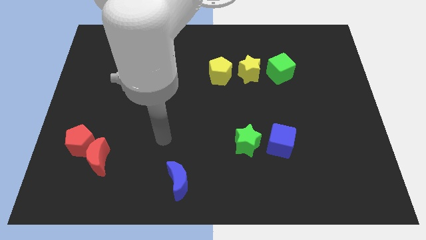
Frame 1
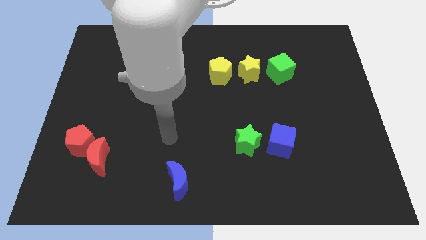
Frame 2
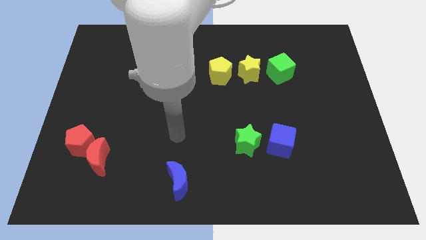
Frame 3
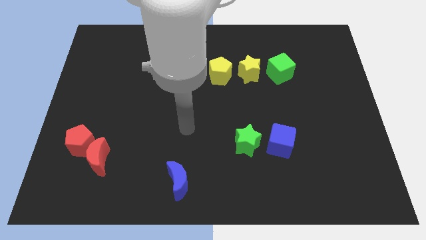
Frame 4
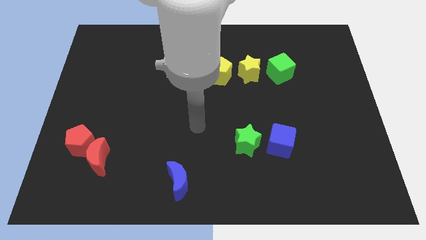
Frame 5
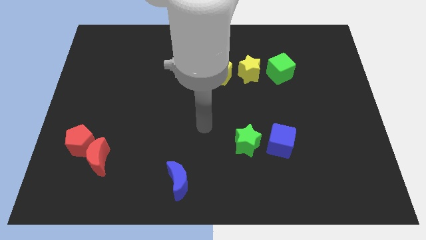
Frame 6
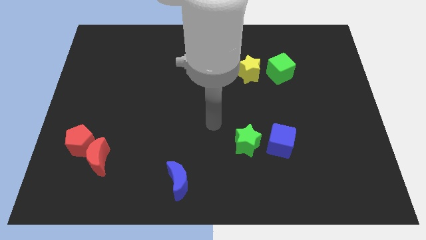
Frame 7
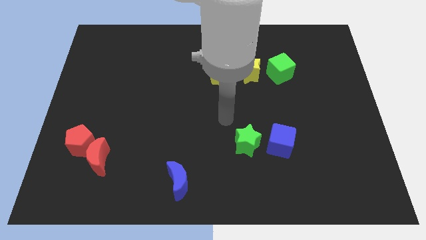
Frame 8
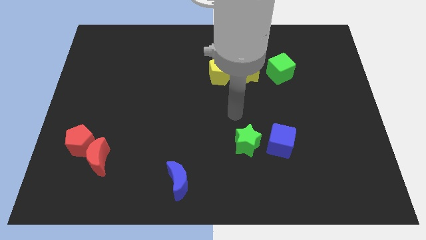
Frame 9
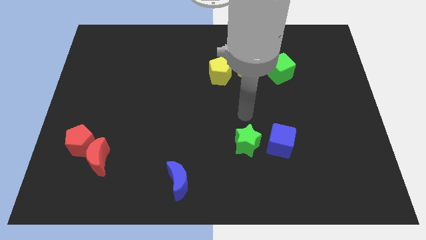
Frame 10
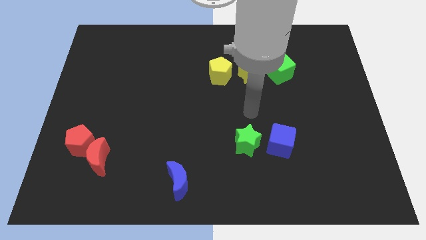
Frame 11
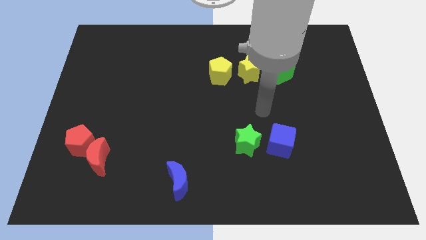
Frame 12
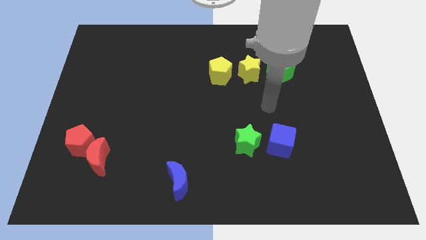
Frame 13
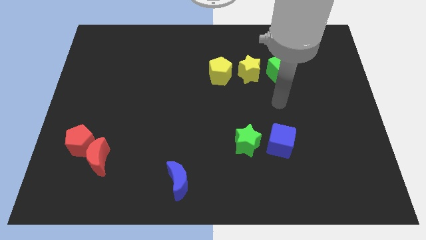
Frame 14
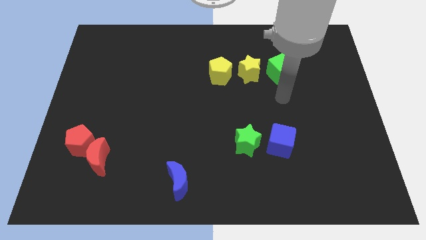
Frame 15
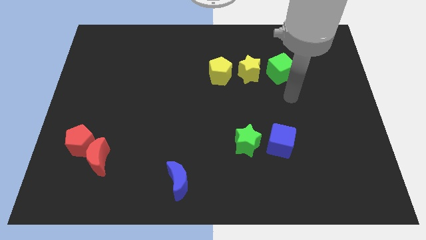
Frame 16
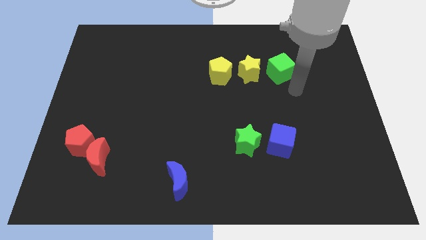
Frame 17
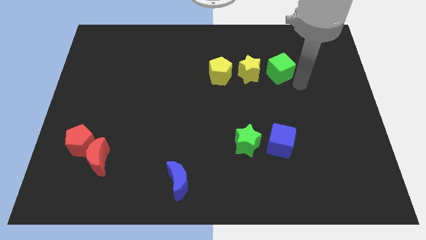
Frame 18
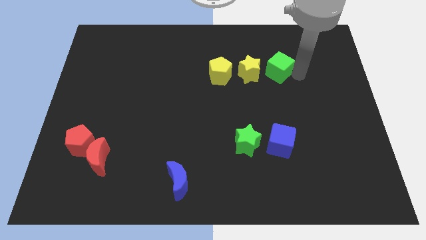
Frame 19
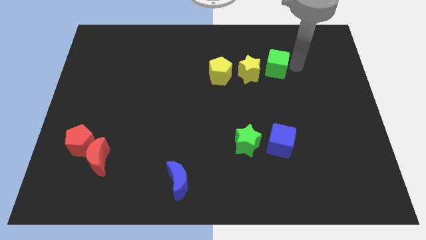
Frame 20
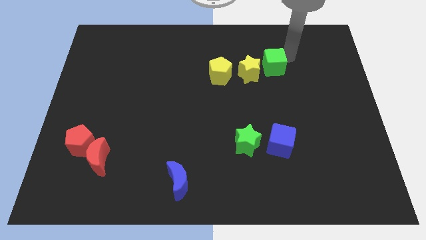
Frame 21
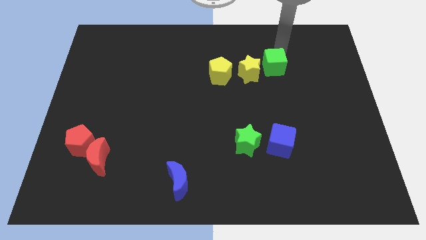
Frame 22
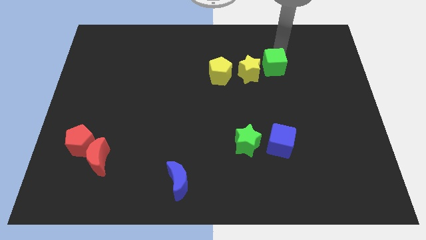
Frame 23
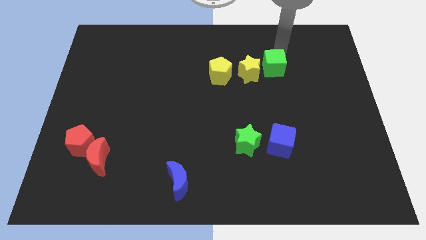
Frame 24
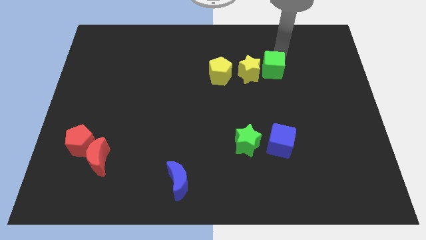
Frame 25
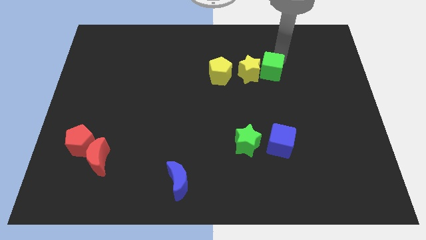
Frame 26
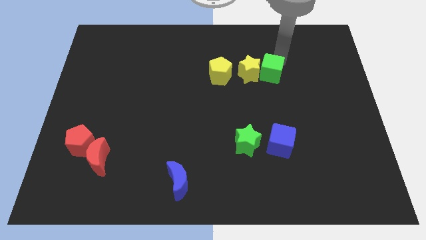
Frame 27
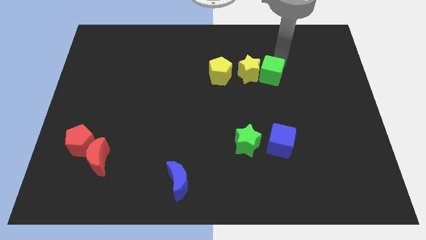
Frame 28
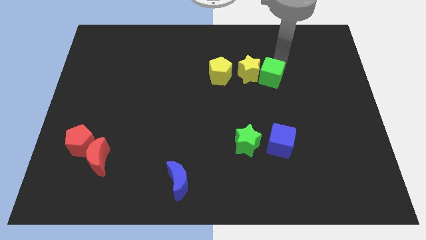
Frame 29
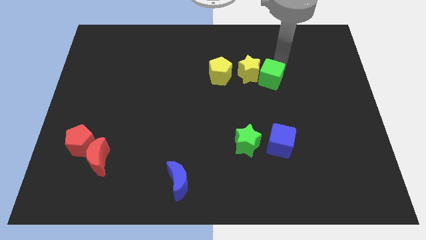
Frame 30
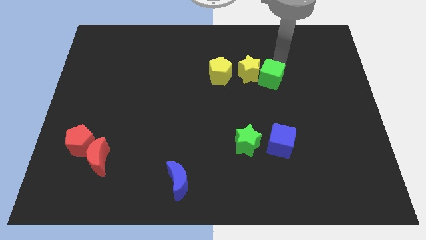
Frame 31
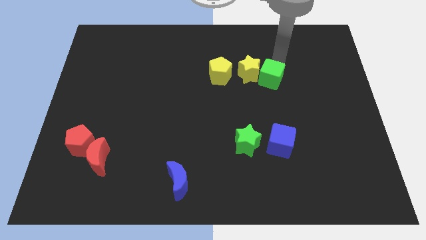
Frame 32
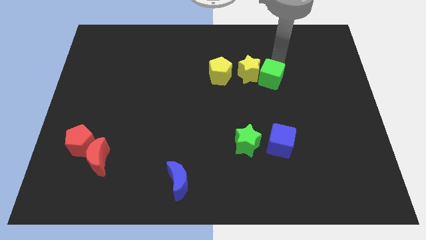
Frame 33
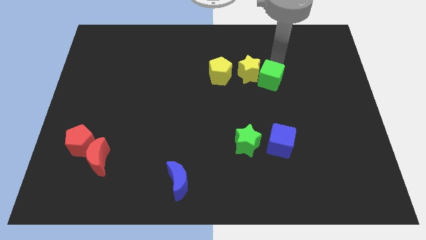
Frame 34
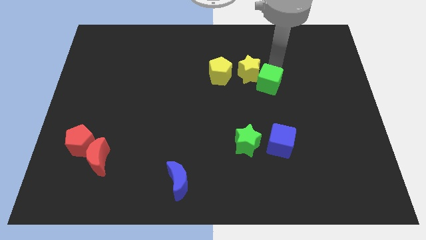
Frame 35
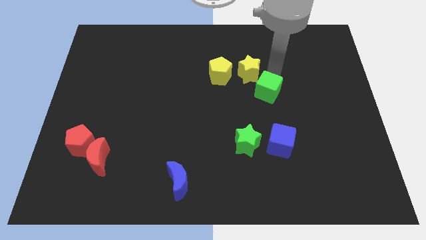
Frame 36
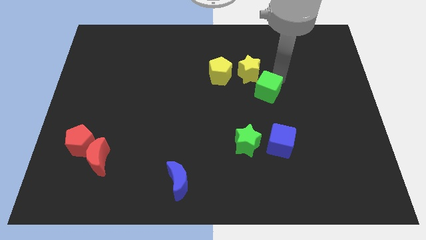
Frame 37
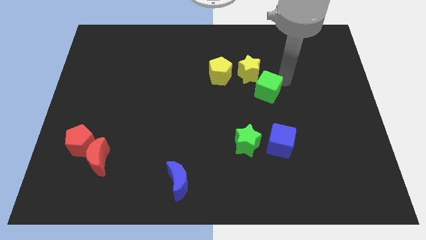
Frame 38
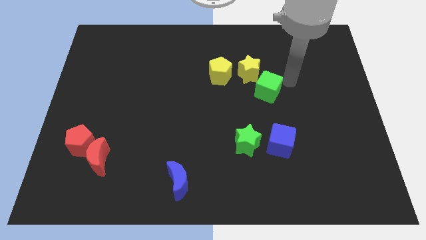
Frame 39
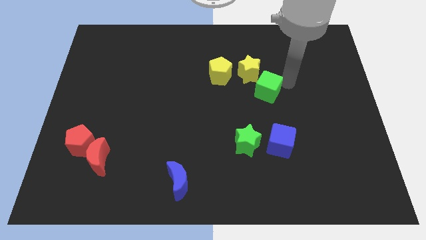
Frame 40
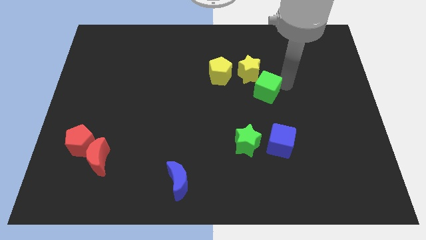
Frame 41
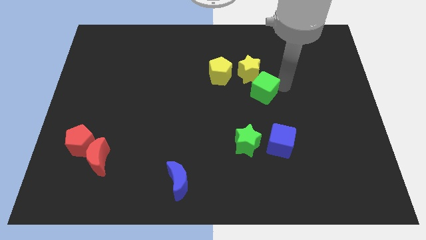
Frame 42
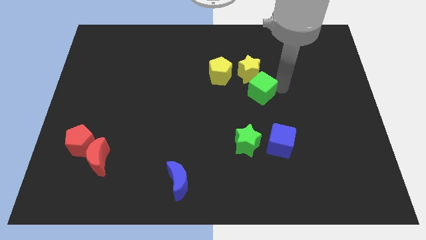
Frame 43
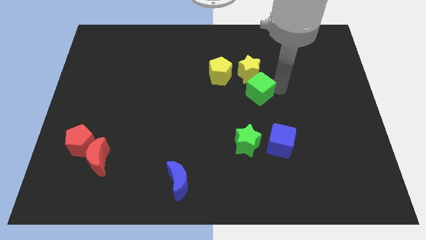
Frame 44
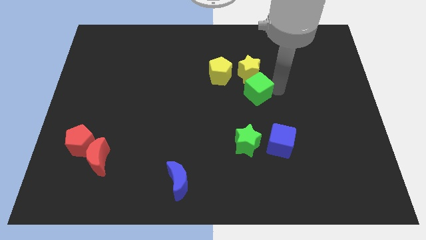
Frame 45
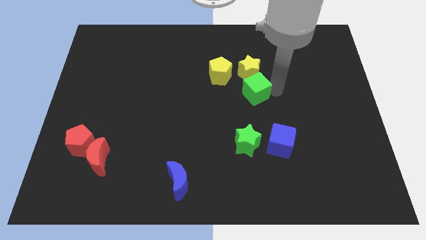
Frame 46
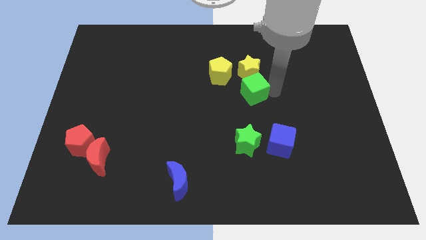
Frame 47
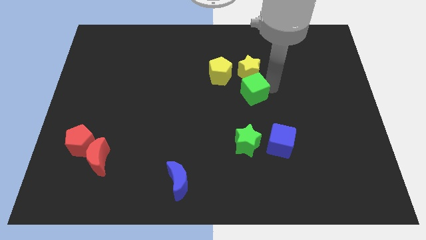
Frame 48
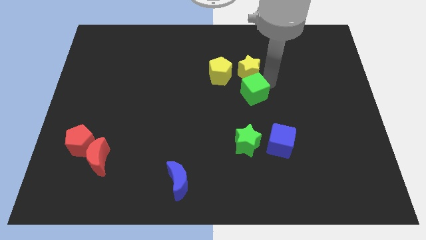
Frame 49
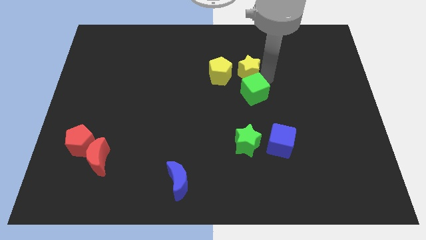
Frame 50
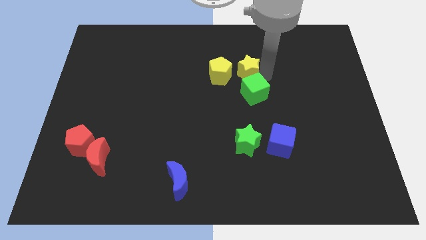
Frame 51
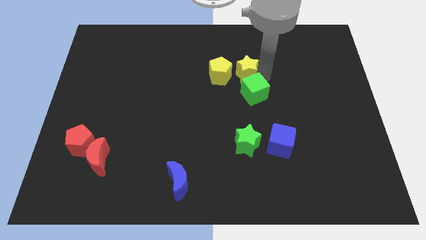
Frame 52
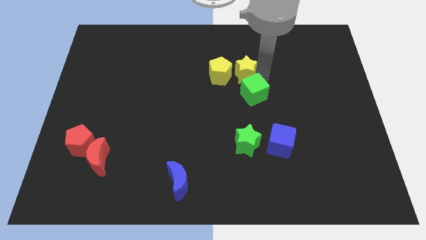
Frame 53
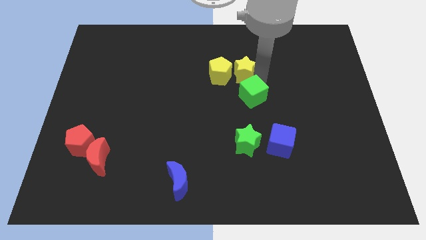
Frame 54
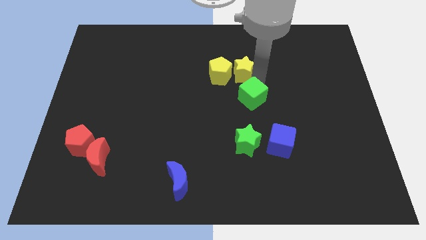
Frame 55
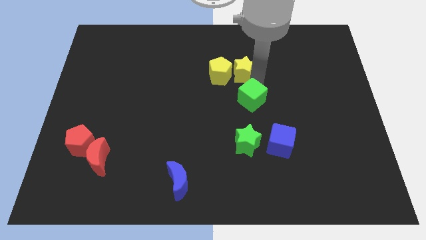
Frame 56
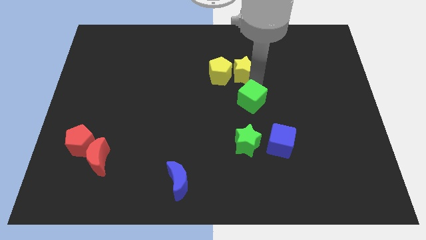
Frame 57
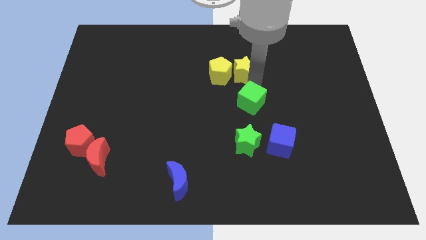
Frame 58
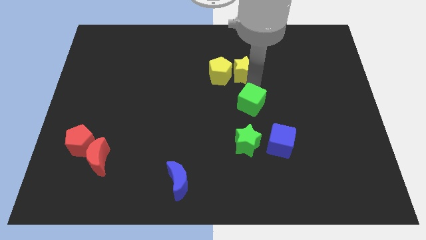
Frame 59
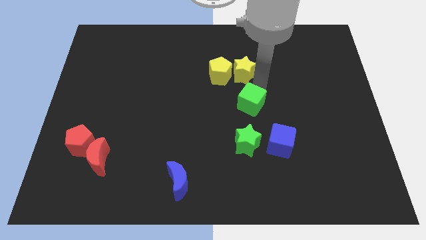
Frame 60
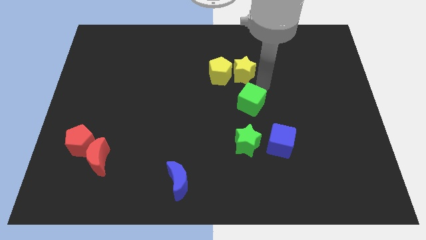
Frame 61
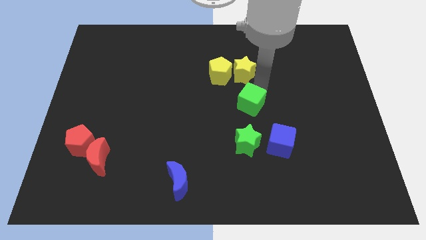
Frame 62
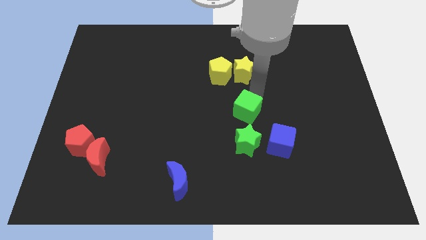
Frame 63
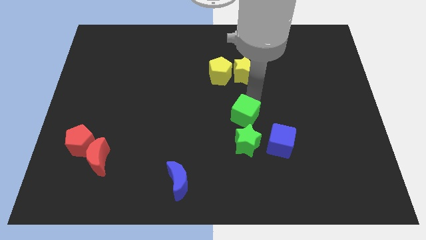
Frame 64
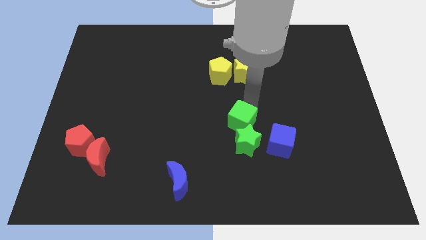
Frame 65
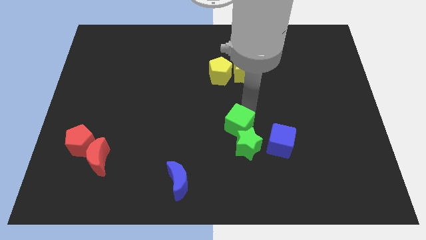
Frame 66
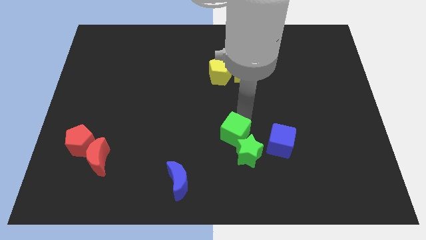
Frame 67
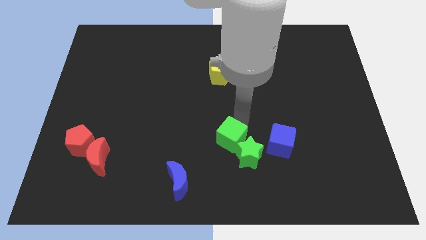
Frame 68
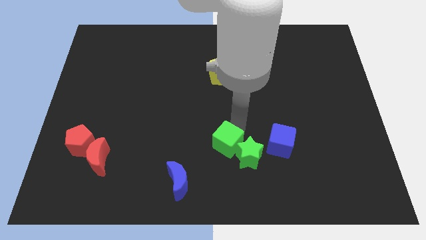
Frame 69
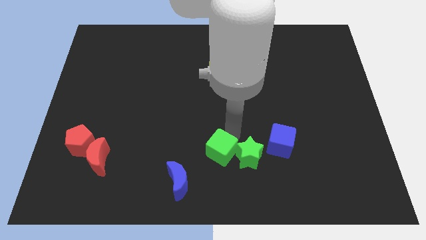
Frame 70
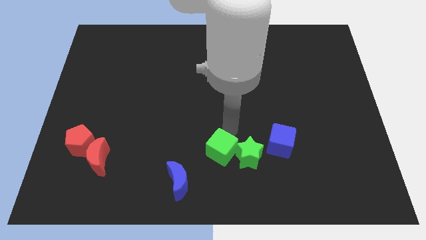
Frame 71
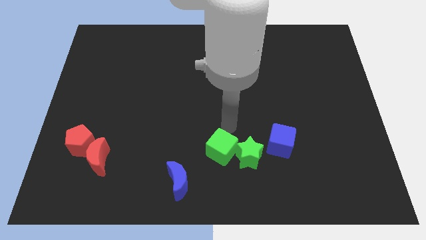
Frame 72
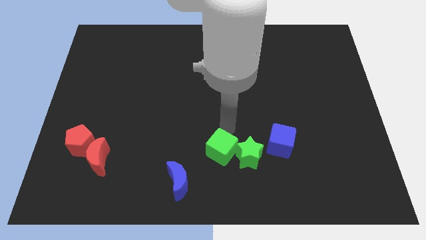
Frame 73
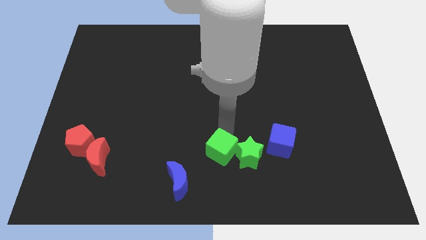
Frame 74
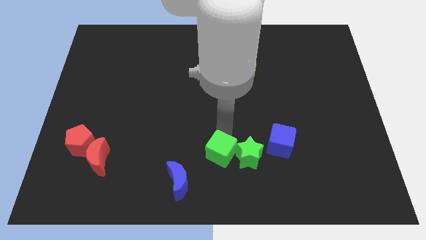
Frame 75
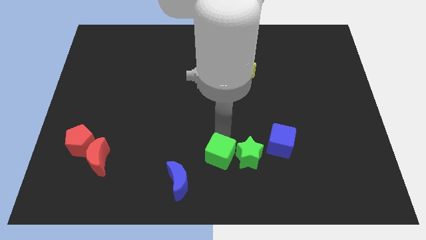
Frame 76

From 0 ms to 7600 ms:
put the green cube to the bottom
